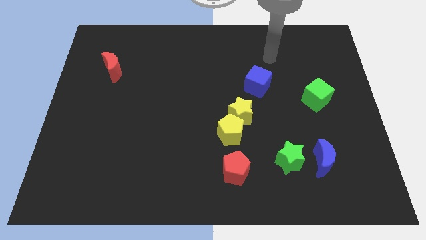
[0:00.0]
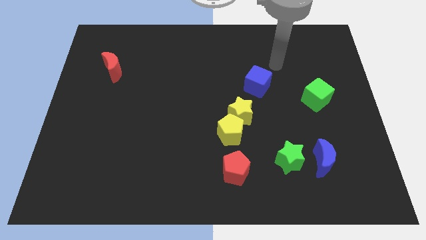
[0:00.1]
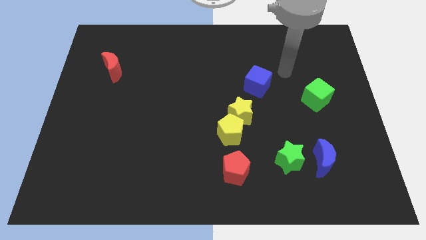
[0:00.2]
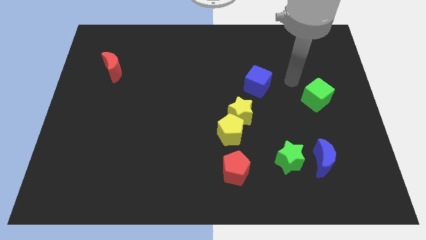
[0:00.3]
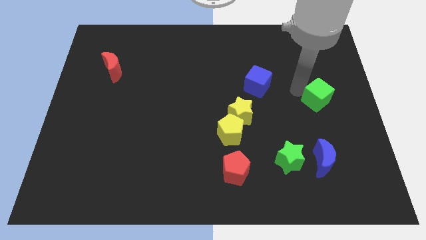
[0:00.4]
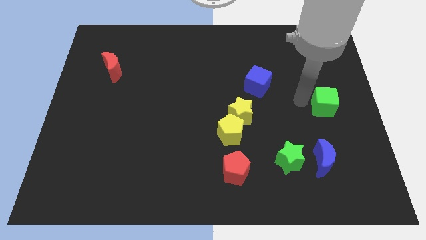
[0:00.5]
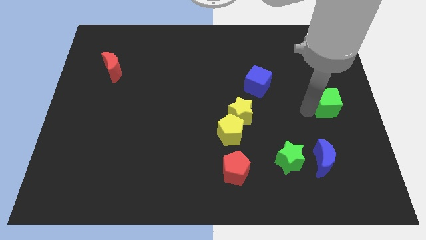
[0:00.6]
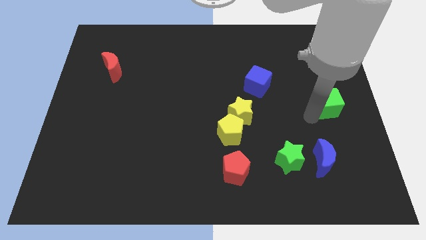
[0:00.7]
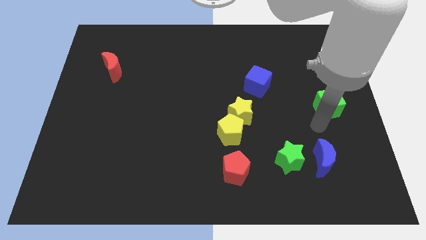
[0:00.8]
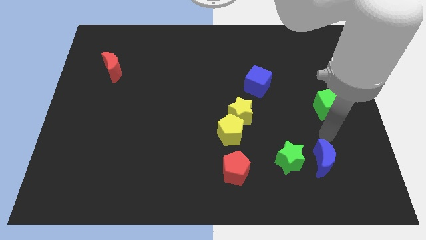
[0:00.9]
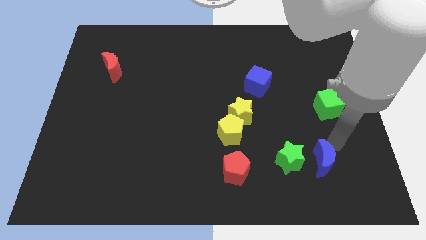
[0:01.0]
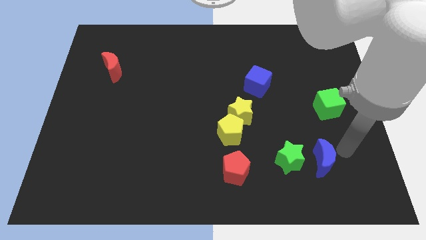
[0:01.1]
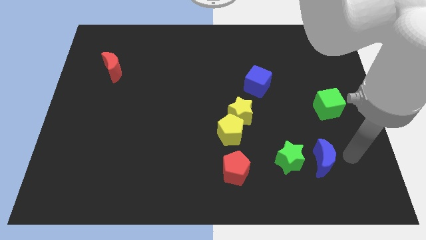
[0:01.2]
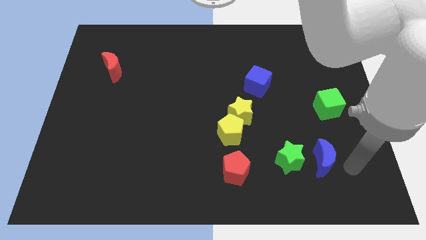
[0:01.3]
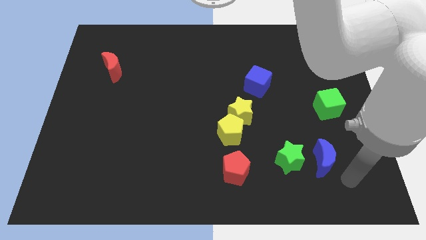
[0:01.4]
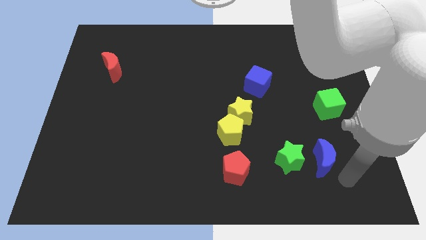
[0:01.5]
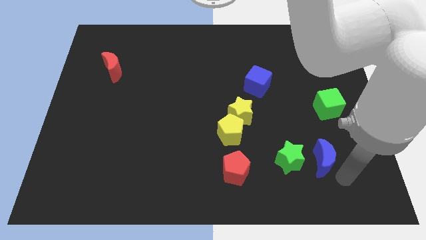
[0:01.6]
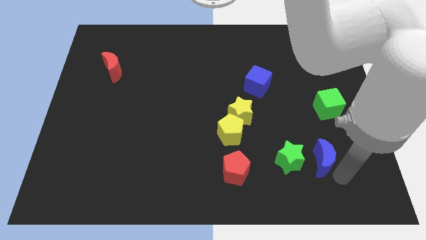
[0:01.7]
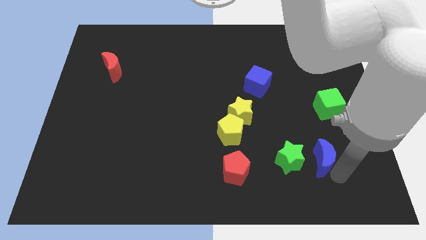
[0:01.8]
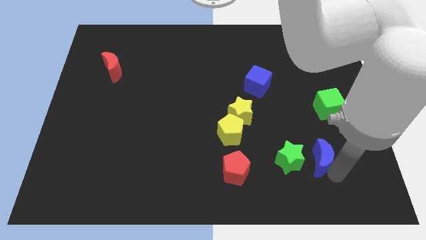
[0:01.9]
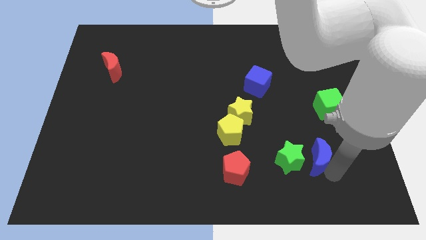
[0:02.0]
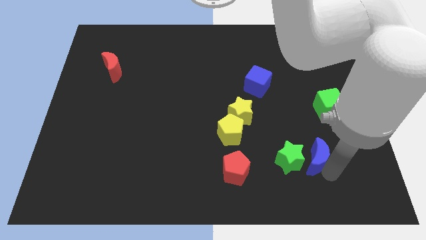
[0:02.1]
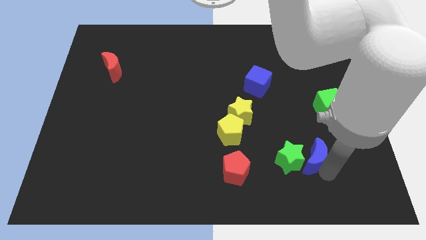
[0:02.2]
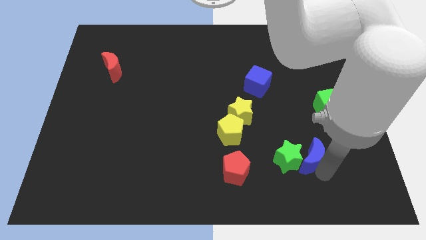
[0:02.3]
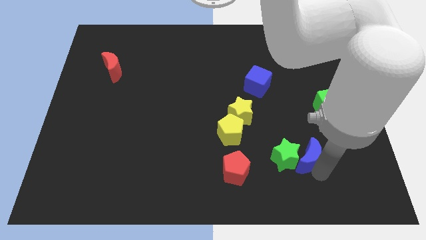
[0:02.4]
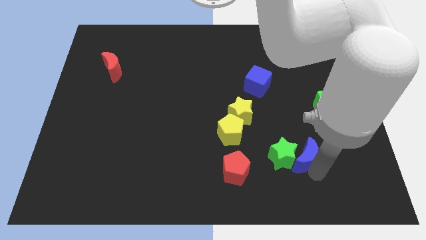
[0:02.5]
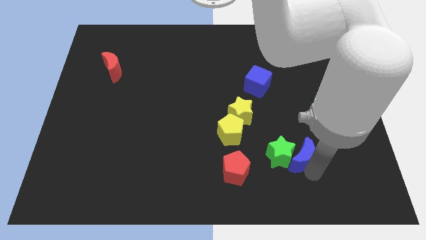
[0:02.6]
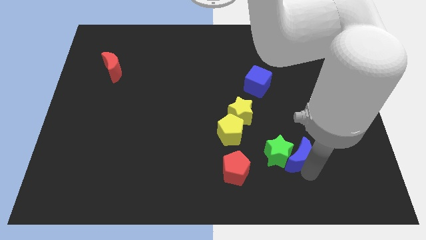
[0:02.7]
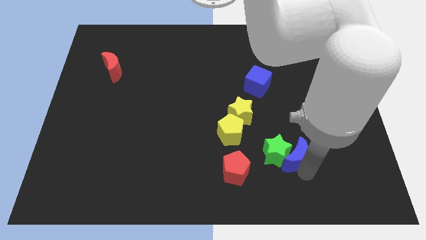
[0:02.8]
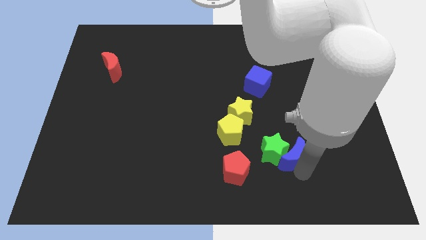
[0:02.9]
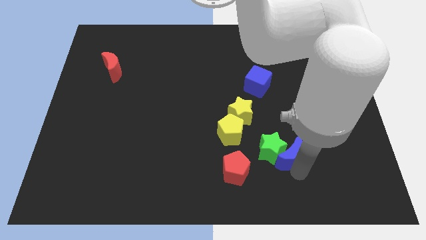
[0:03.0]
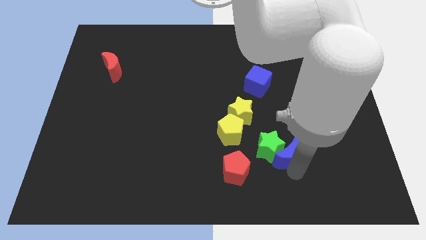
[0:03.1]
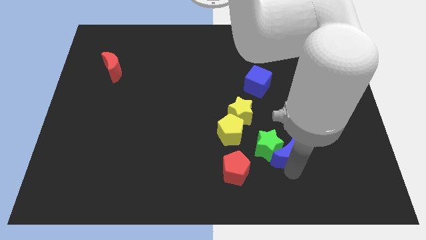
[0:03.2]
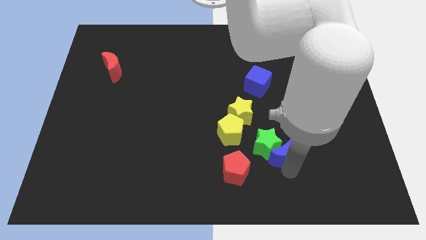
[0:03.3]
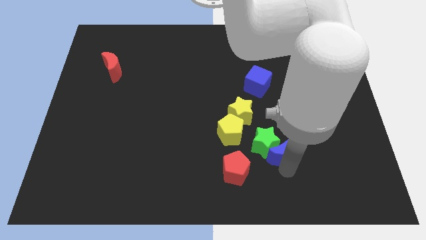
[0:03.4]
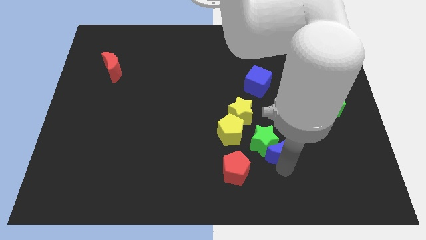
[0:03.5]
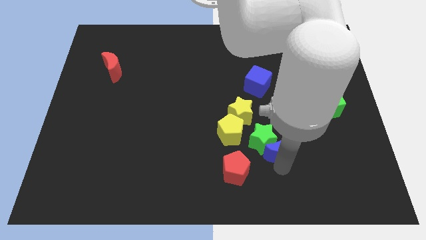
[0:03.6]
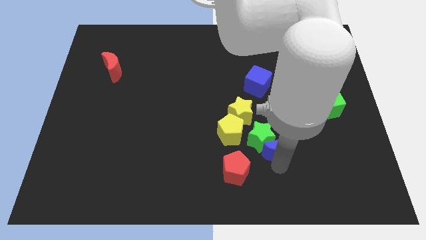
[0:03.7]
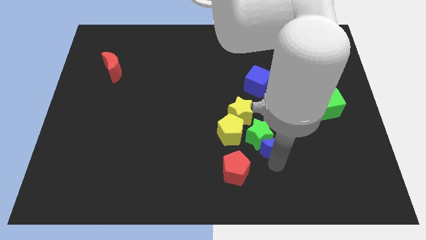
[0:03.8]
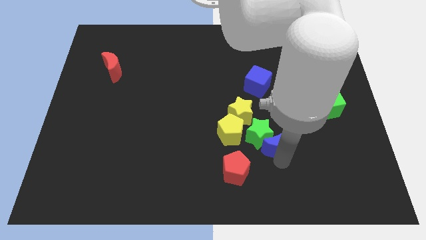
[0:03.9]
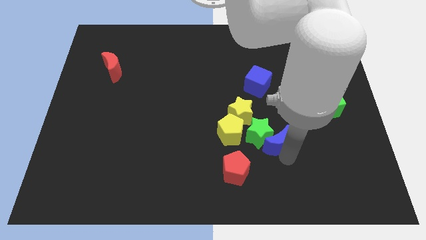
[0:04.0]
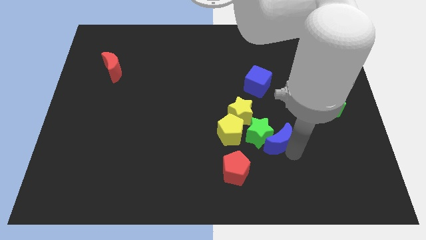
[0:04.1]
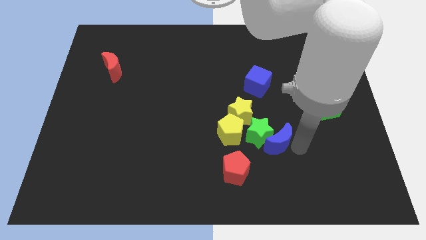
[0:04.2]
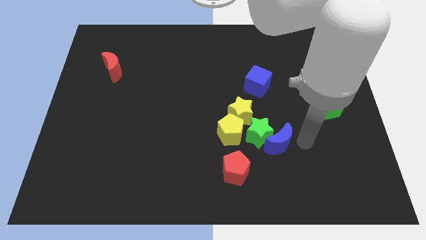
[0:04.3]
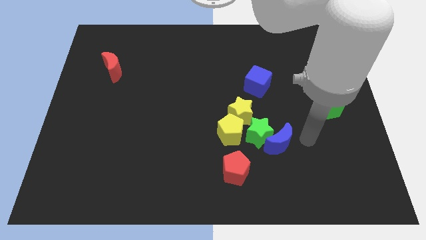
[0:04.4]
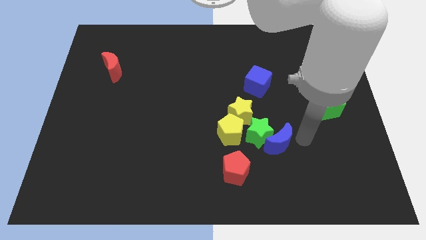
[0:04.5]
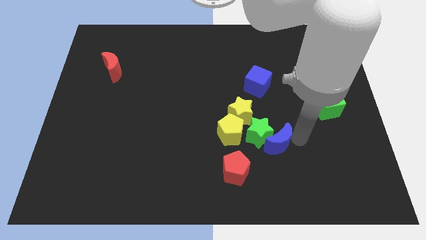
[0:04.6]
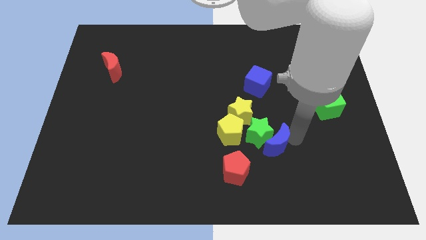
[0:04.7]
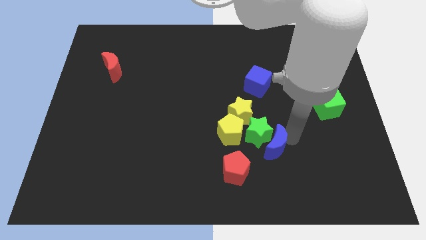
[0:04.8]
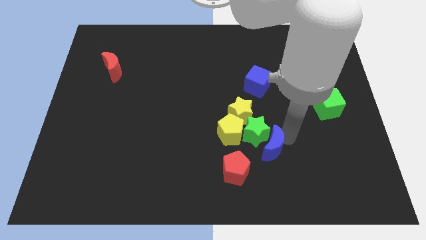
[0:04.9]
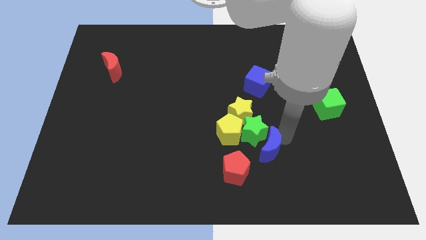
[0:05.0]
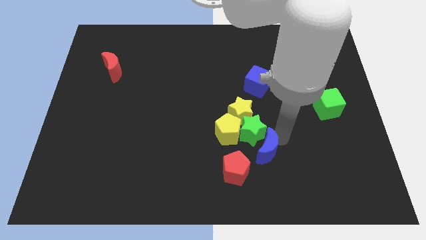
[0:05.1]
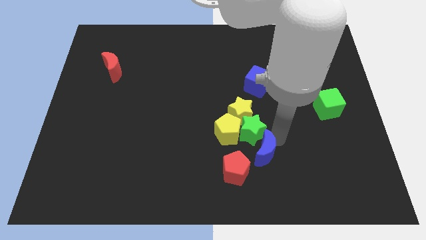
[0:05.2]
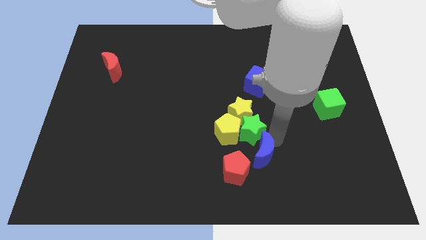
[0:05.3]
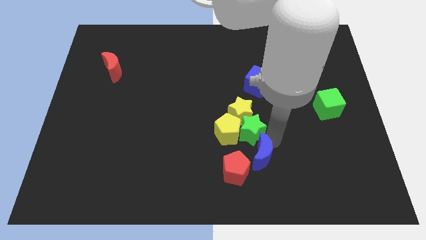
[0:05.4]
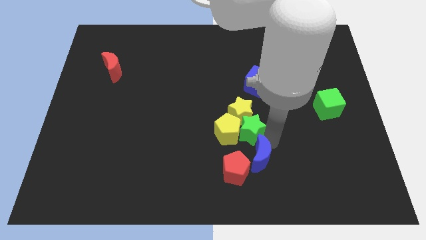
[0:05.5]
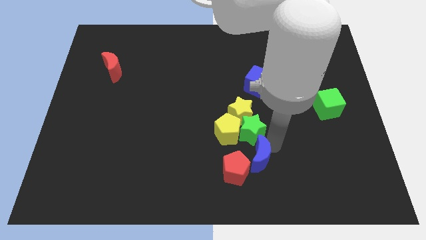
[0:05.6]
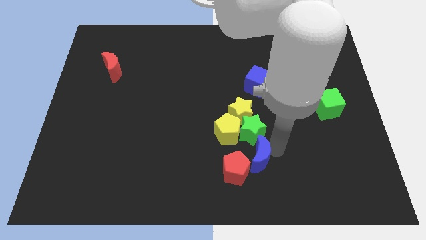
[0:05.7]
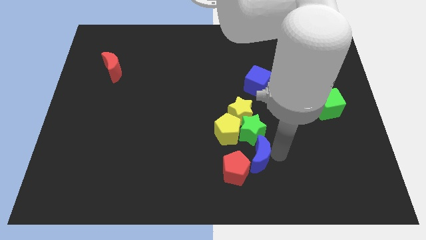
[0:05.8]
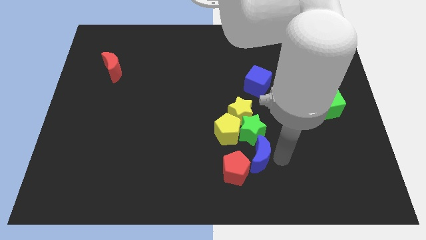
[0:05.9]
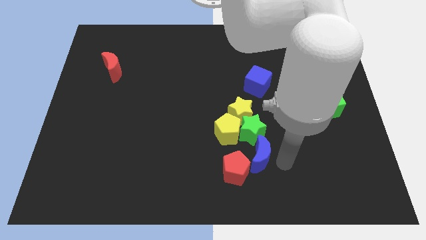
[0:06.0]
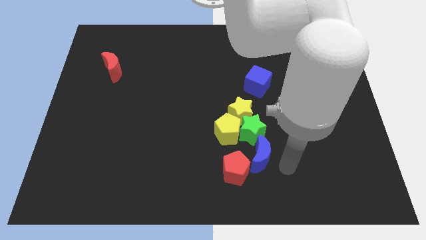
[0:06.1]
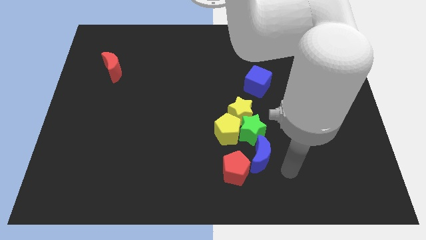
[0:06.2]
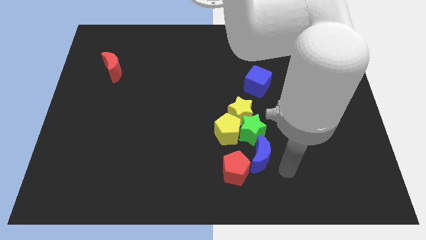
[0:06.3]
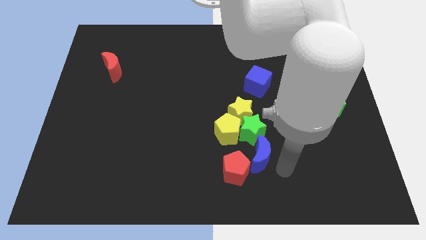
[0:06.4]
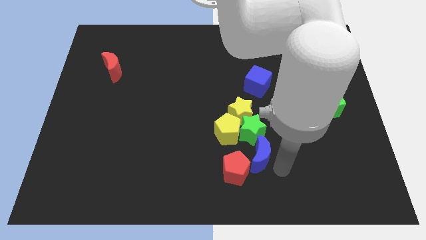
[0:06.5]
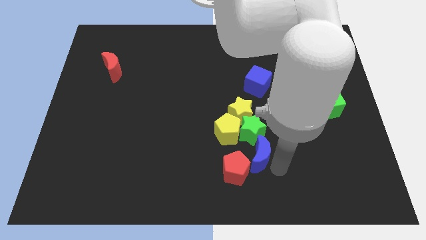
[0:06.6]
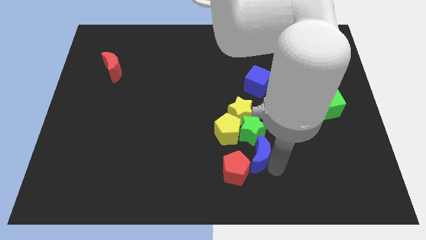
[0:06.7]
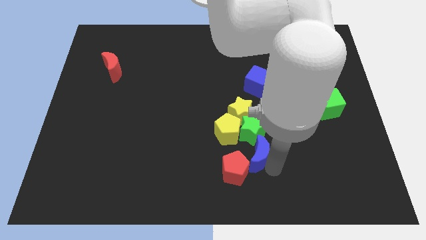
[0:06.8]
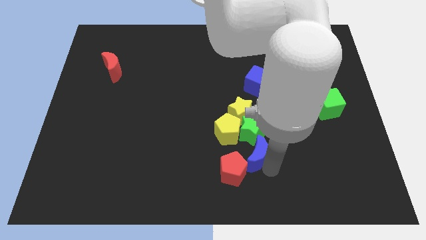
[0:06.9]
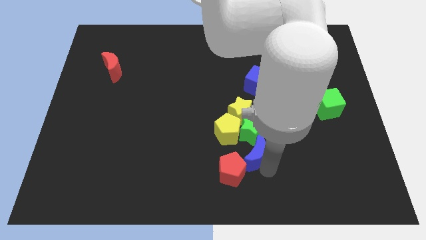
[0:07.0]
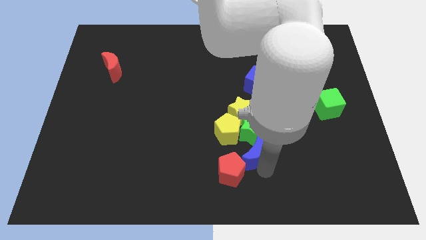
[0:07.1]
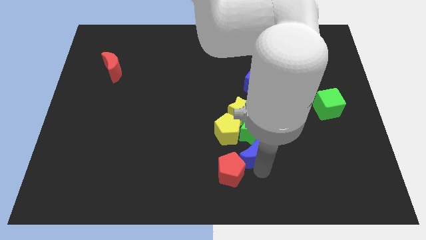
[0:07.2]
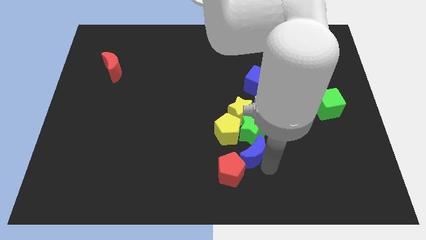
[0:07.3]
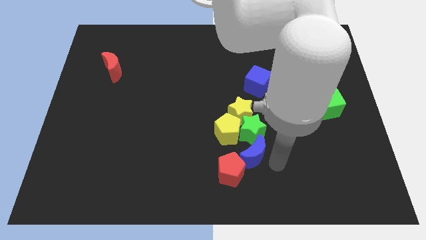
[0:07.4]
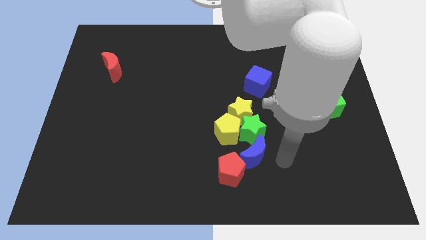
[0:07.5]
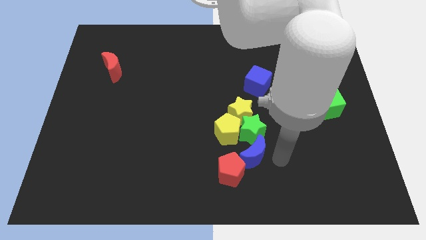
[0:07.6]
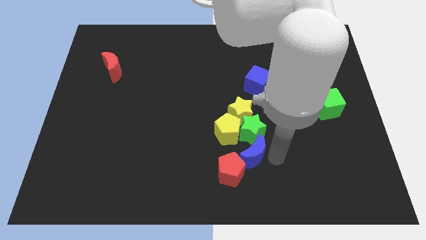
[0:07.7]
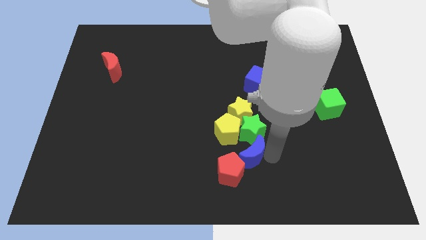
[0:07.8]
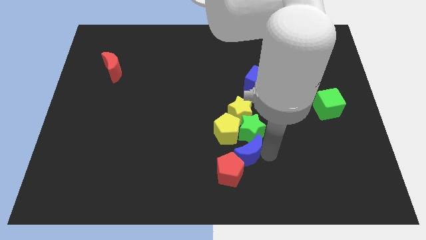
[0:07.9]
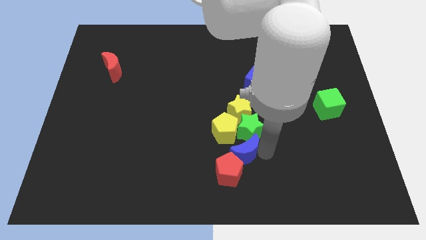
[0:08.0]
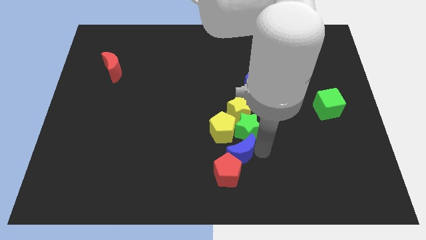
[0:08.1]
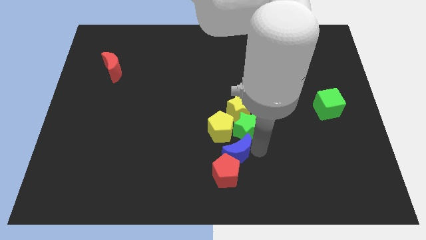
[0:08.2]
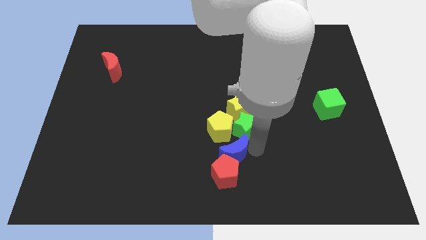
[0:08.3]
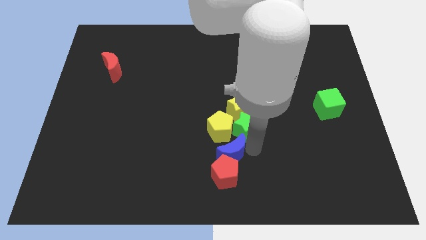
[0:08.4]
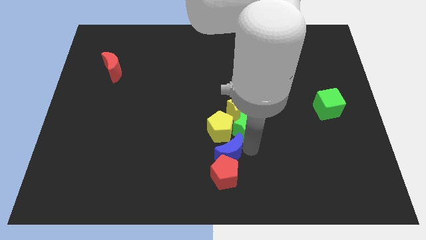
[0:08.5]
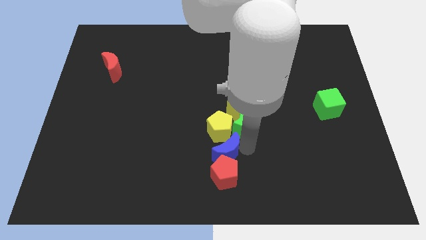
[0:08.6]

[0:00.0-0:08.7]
push the blue moon left
